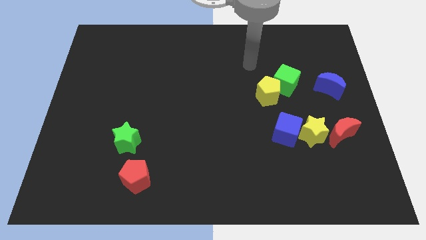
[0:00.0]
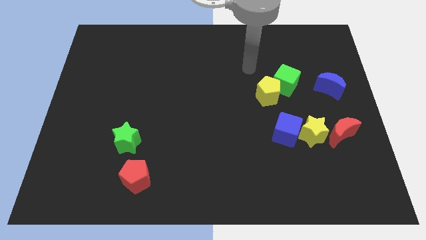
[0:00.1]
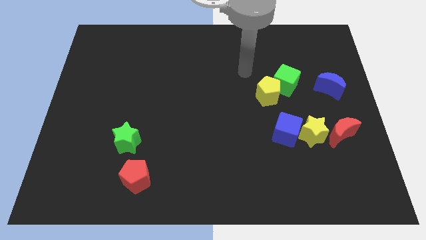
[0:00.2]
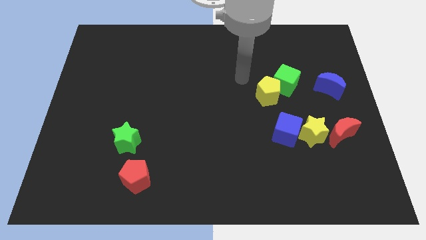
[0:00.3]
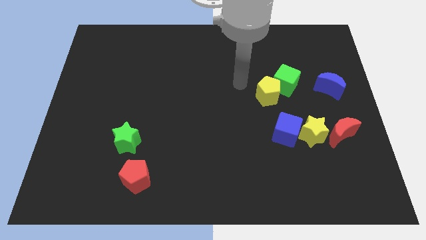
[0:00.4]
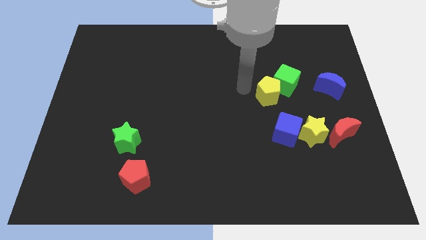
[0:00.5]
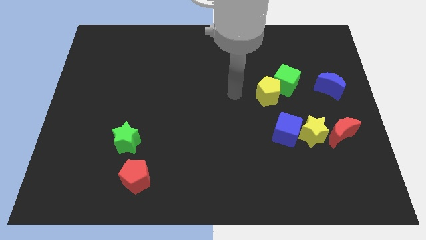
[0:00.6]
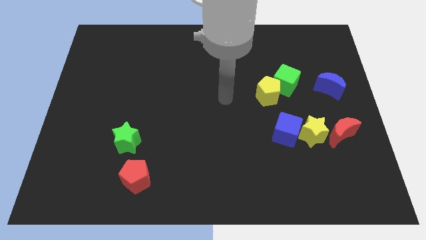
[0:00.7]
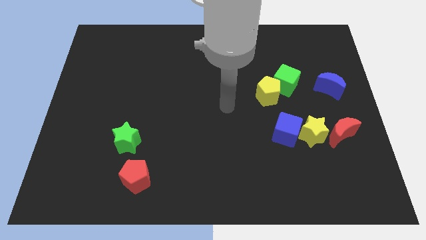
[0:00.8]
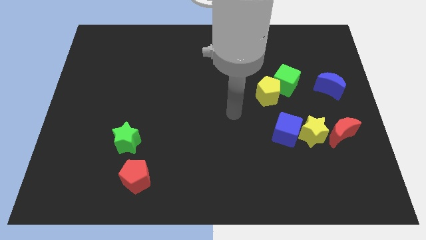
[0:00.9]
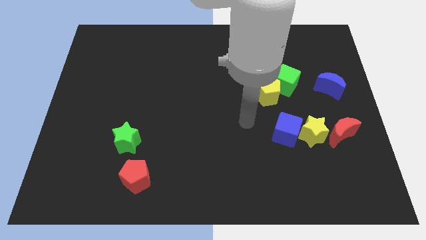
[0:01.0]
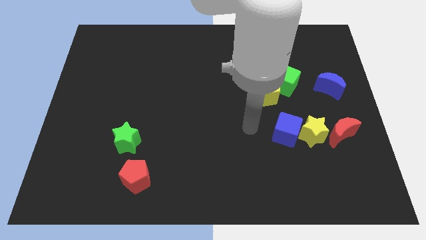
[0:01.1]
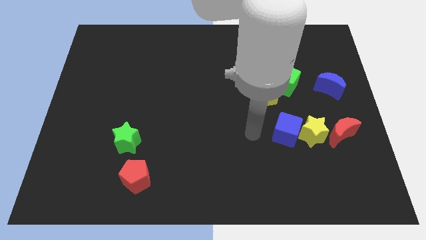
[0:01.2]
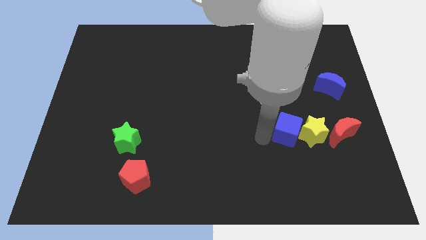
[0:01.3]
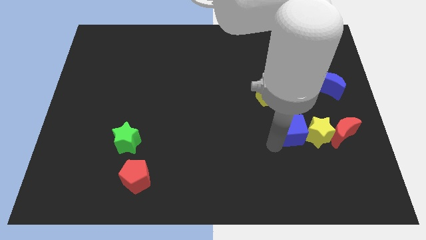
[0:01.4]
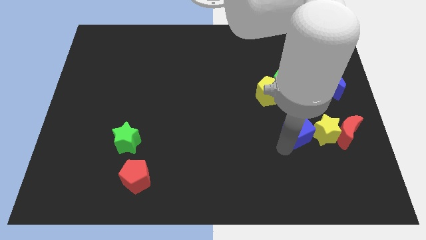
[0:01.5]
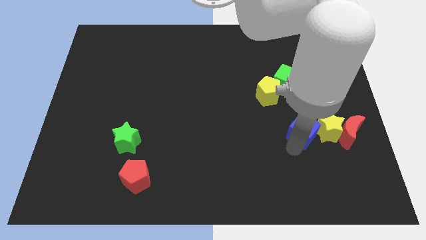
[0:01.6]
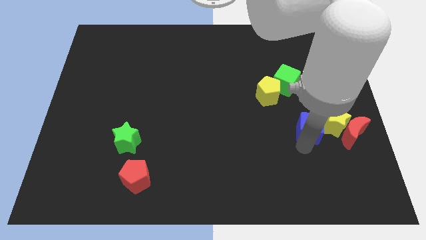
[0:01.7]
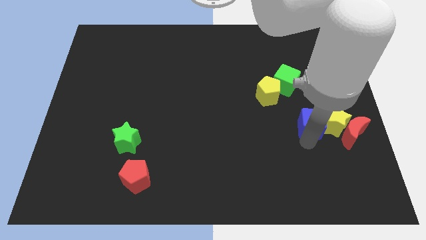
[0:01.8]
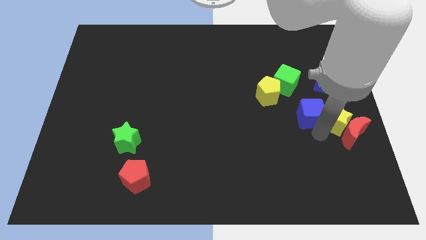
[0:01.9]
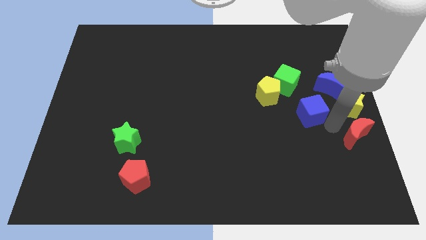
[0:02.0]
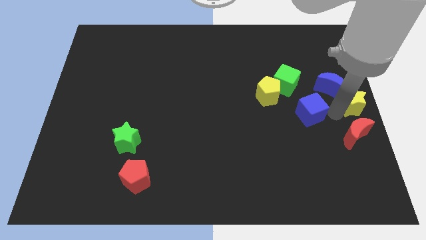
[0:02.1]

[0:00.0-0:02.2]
move the blue cube away from the yellow star

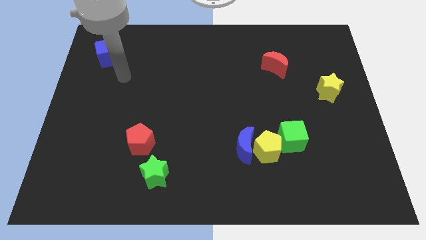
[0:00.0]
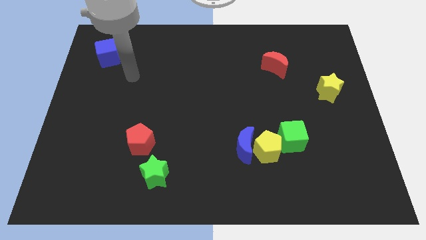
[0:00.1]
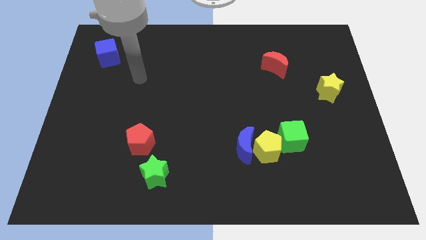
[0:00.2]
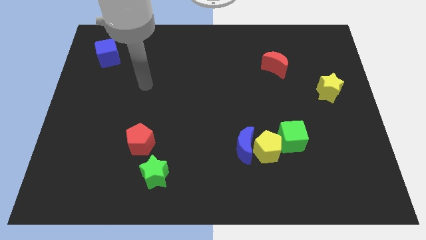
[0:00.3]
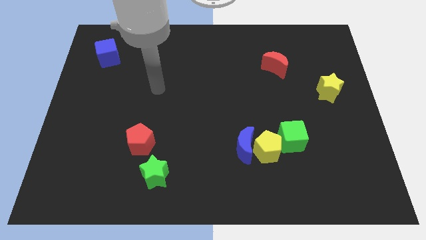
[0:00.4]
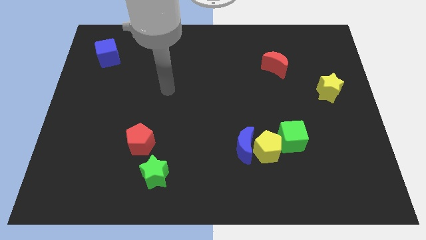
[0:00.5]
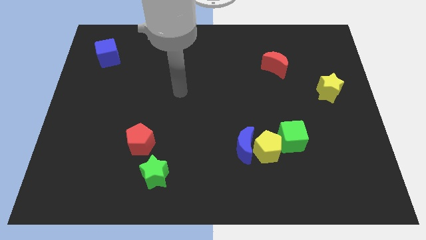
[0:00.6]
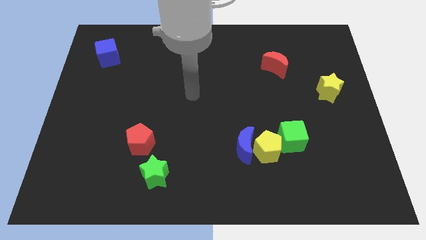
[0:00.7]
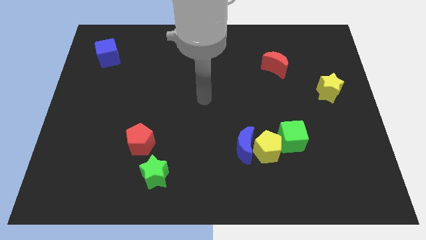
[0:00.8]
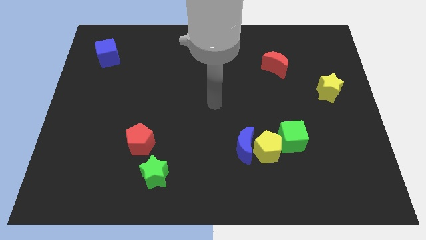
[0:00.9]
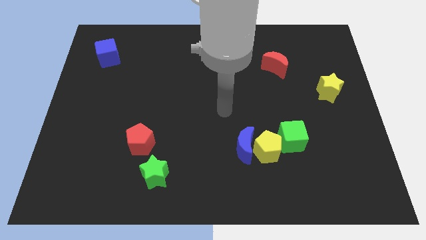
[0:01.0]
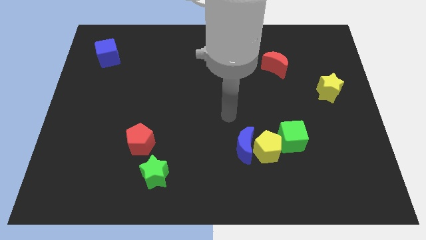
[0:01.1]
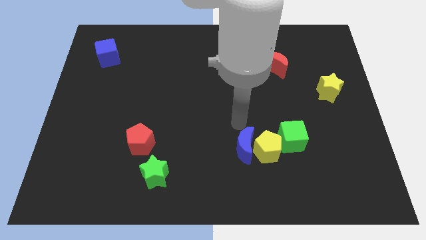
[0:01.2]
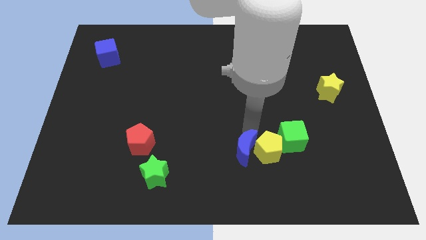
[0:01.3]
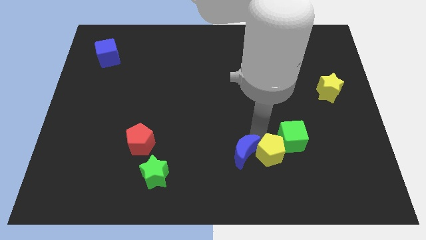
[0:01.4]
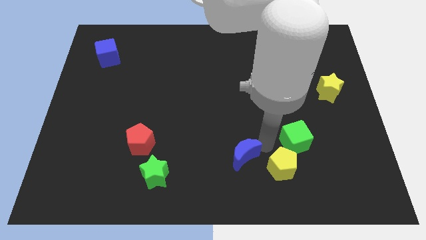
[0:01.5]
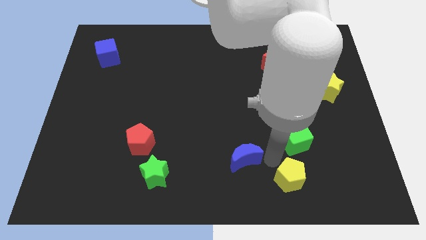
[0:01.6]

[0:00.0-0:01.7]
separate the blue moon from the yellow pentagon

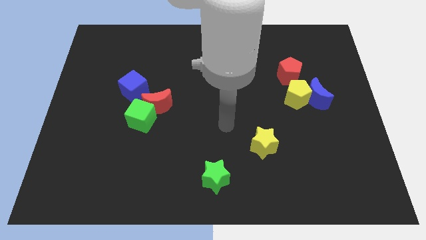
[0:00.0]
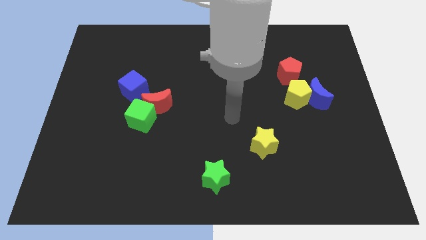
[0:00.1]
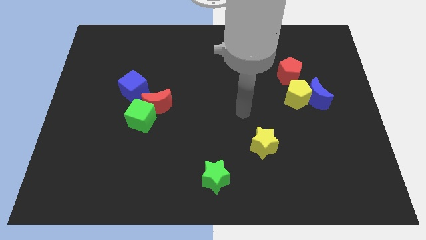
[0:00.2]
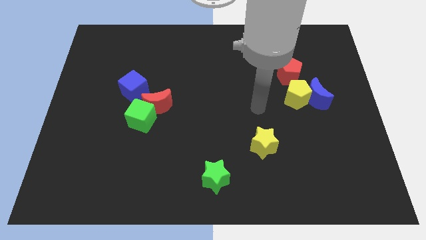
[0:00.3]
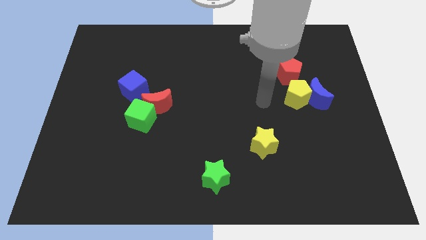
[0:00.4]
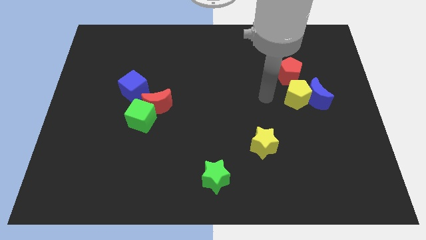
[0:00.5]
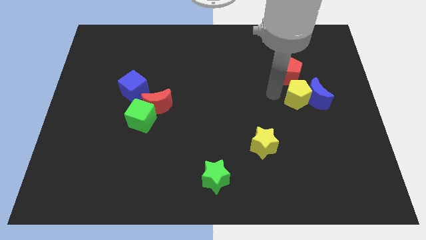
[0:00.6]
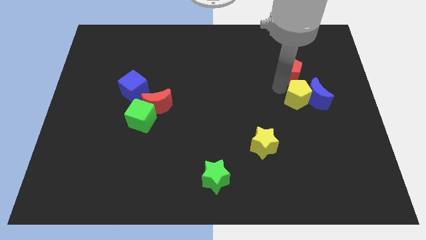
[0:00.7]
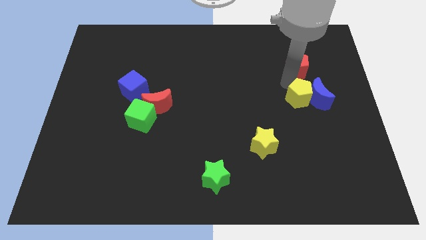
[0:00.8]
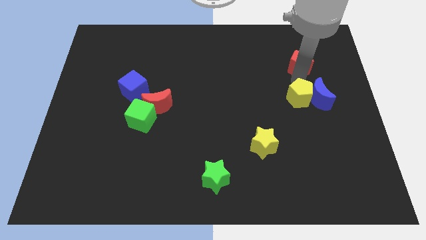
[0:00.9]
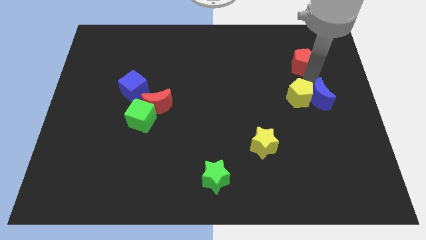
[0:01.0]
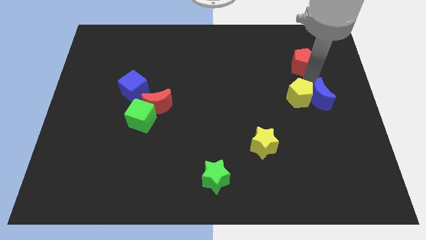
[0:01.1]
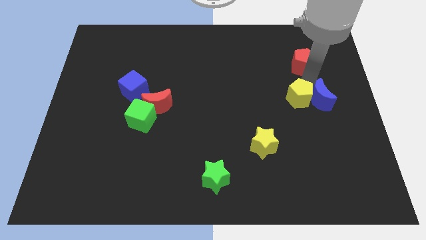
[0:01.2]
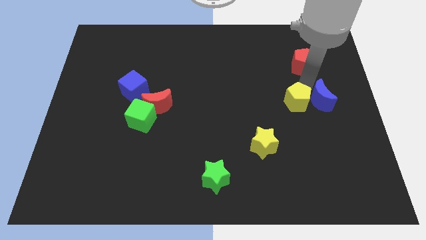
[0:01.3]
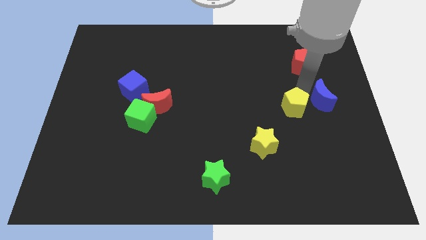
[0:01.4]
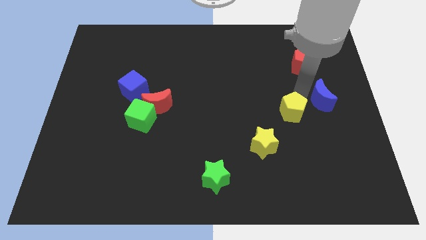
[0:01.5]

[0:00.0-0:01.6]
move the yellow pentagon away from the blue moon and red pentagon

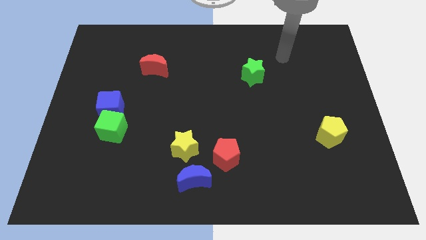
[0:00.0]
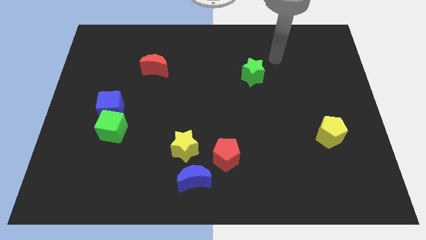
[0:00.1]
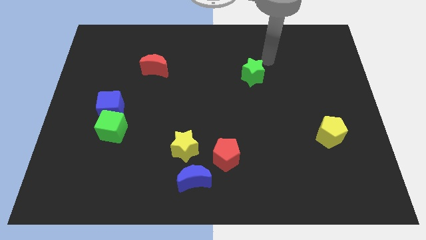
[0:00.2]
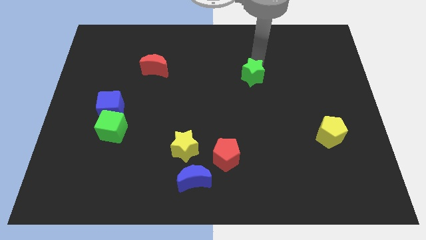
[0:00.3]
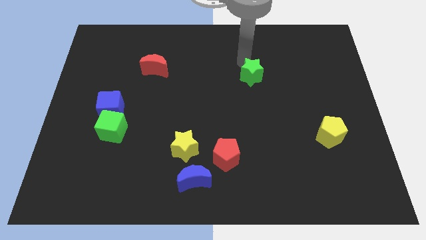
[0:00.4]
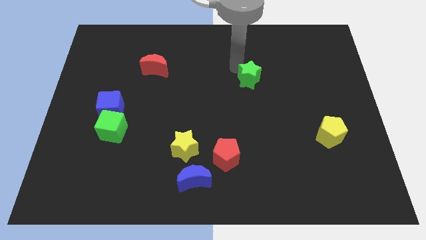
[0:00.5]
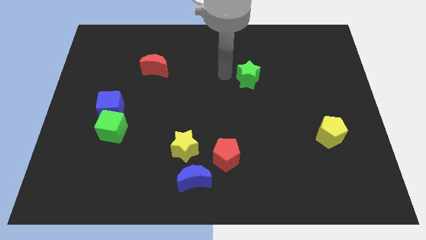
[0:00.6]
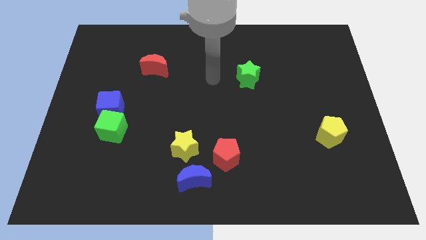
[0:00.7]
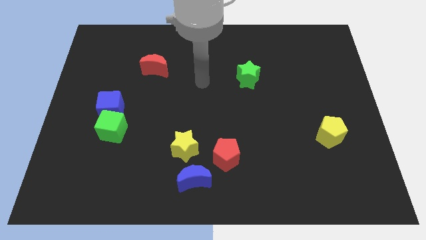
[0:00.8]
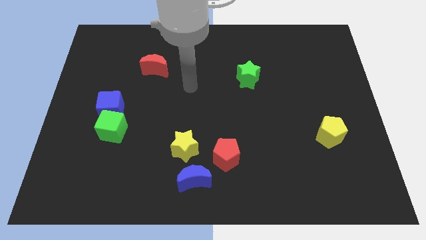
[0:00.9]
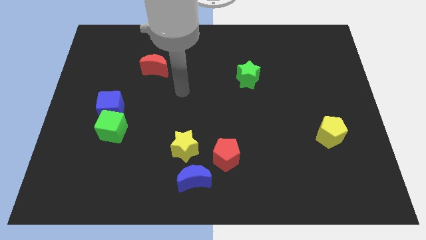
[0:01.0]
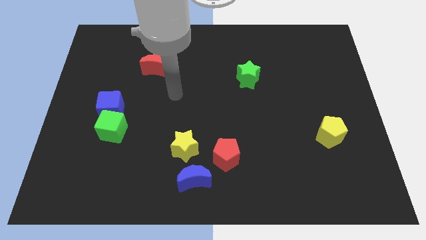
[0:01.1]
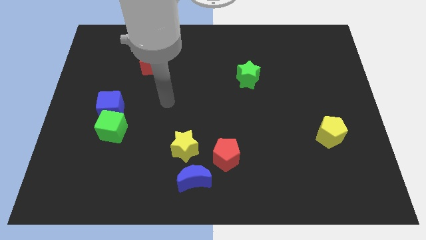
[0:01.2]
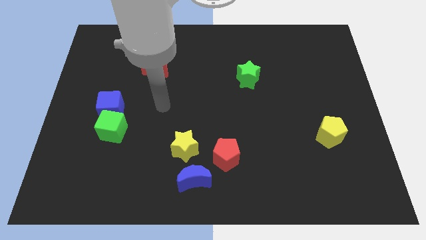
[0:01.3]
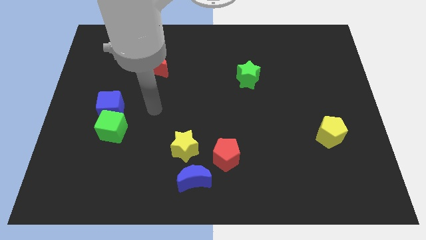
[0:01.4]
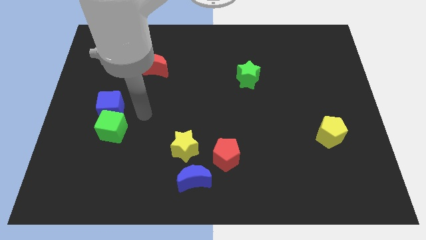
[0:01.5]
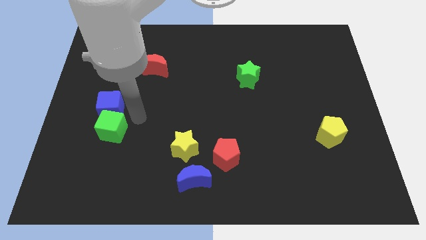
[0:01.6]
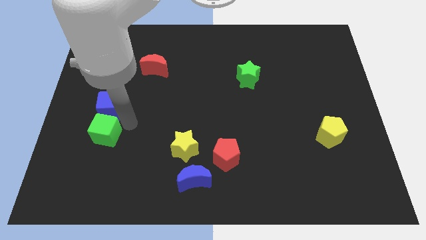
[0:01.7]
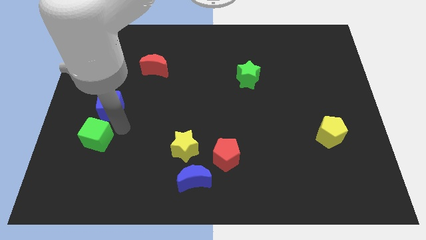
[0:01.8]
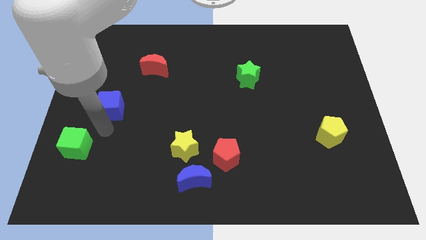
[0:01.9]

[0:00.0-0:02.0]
separate the blue cube from the green cube

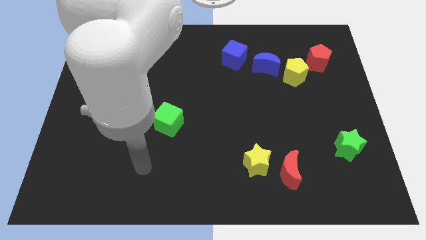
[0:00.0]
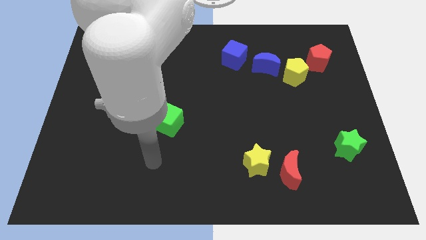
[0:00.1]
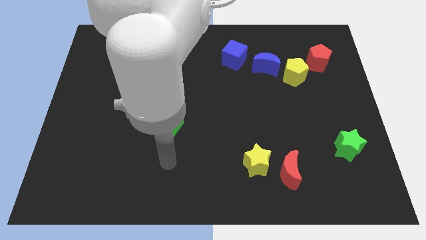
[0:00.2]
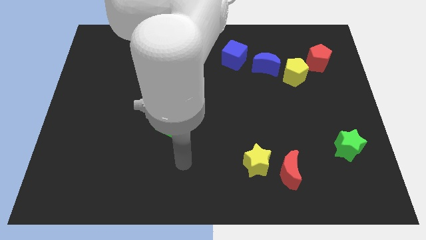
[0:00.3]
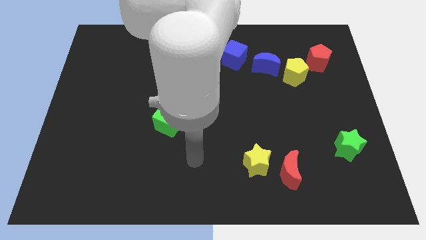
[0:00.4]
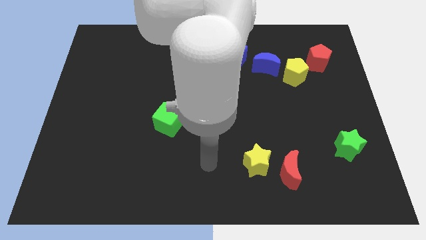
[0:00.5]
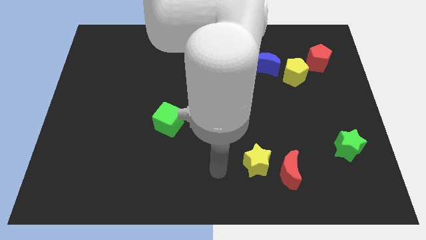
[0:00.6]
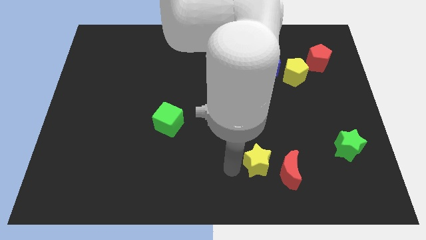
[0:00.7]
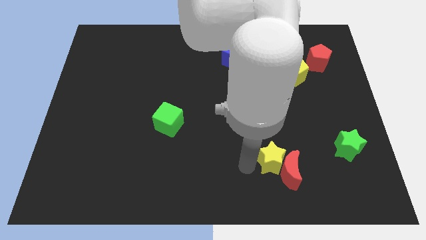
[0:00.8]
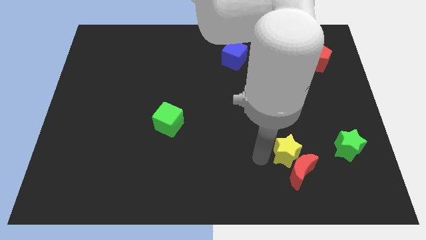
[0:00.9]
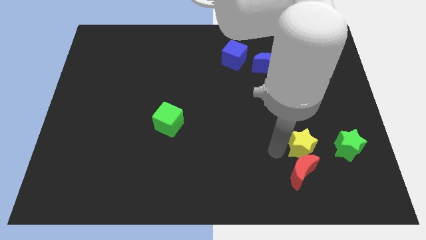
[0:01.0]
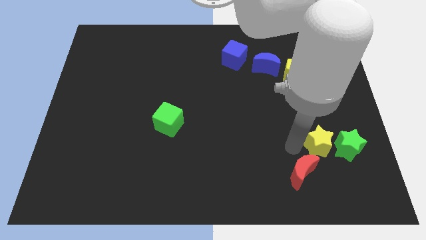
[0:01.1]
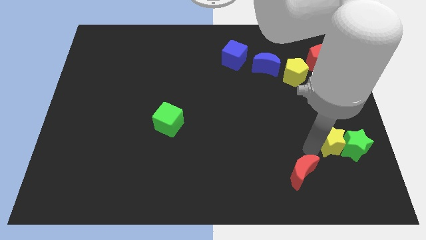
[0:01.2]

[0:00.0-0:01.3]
separate the red moon from the yellow star

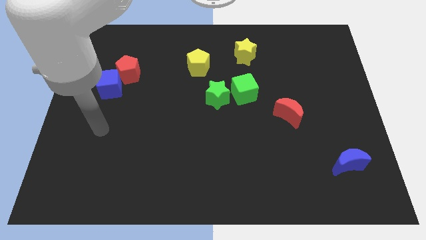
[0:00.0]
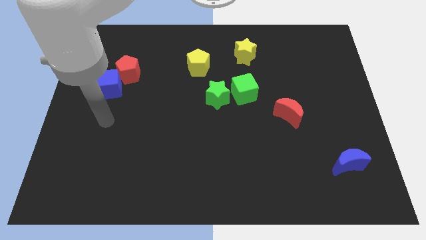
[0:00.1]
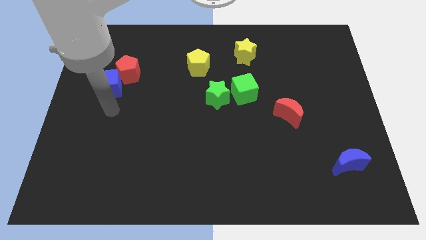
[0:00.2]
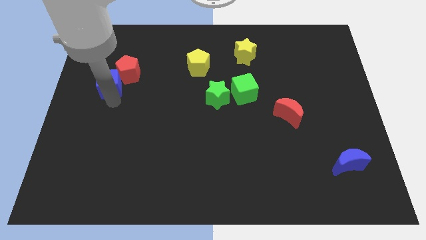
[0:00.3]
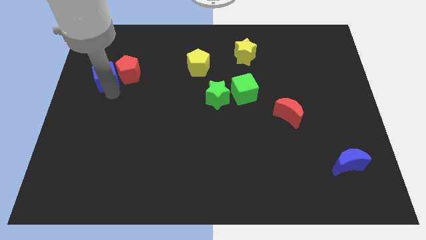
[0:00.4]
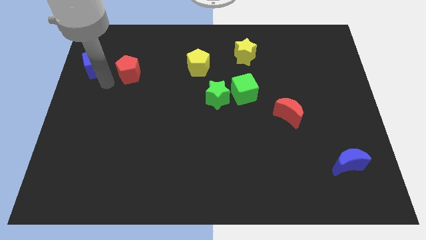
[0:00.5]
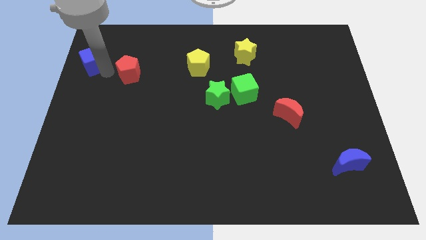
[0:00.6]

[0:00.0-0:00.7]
pull the red pentagon apart from the blue cube
